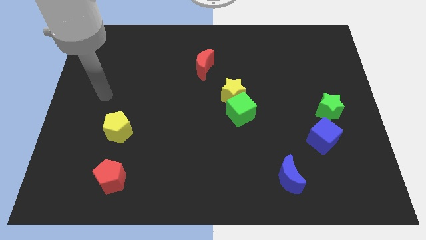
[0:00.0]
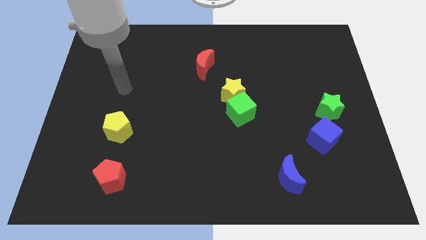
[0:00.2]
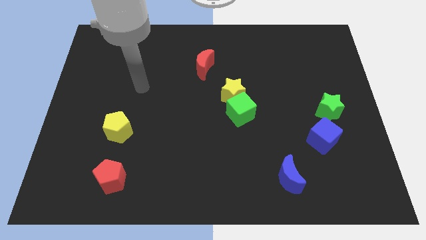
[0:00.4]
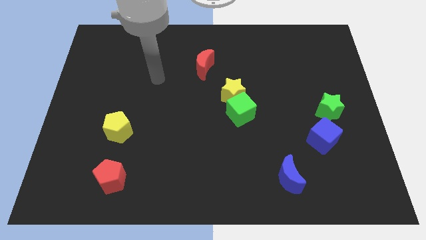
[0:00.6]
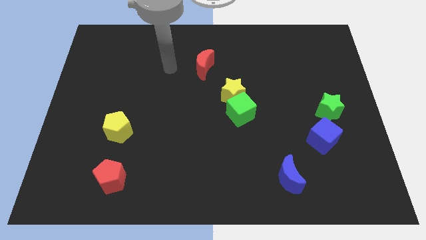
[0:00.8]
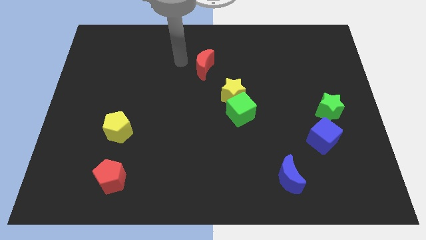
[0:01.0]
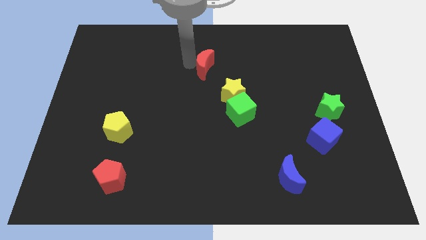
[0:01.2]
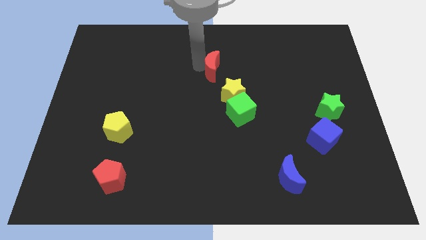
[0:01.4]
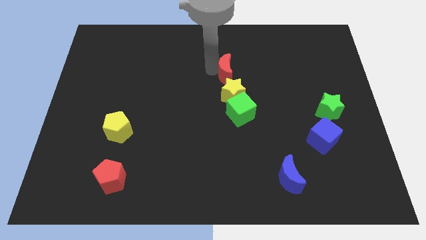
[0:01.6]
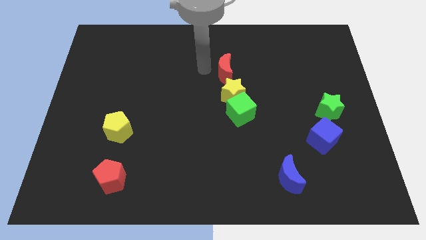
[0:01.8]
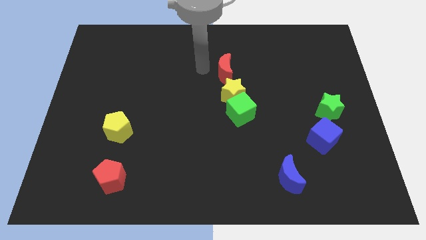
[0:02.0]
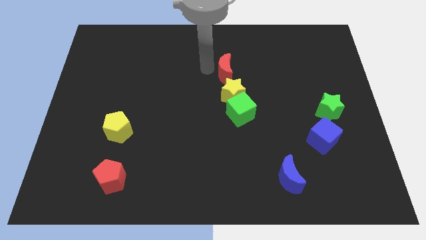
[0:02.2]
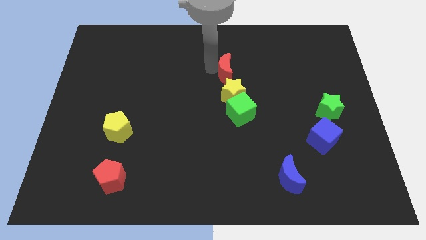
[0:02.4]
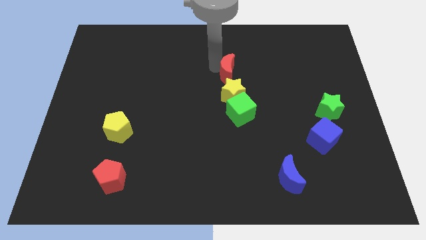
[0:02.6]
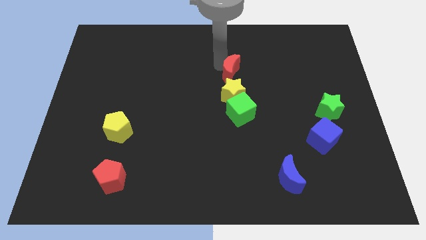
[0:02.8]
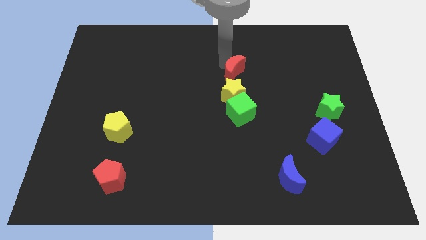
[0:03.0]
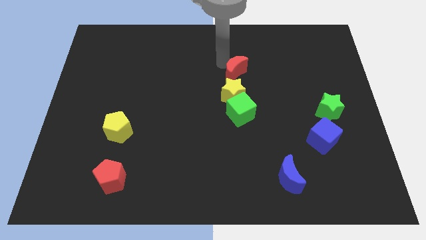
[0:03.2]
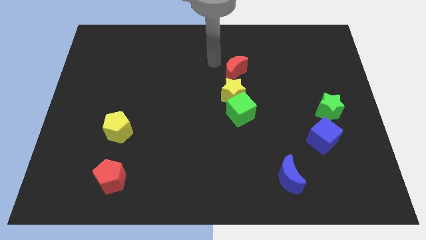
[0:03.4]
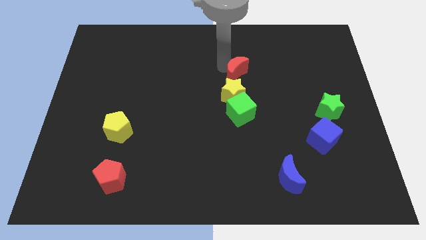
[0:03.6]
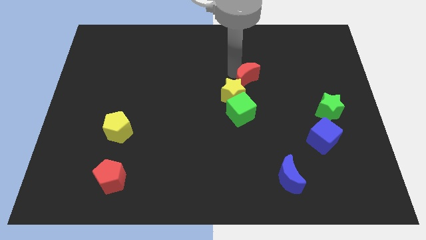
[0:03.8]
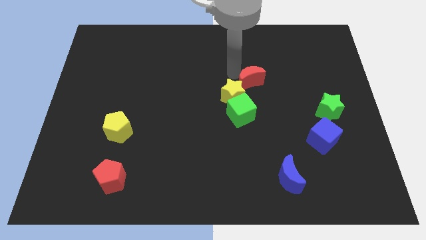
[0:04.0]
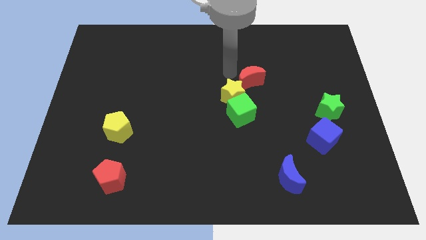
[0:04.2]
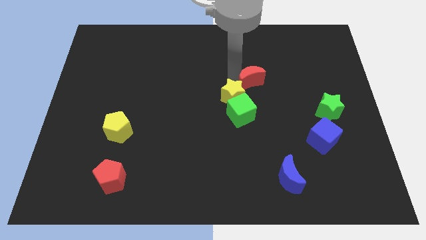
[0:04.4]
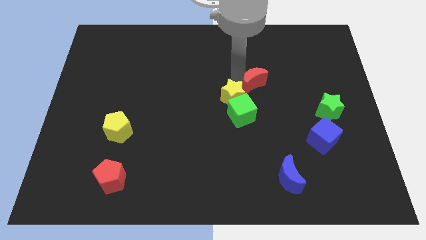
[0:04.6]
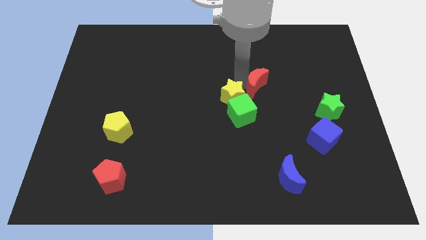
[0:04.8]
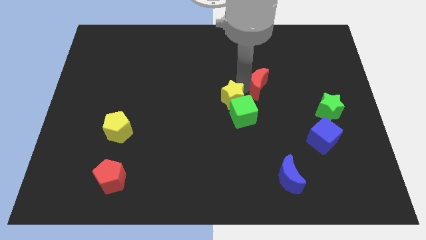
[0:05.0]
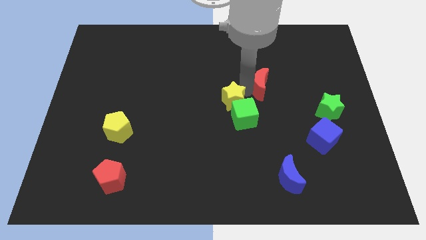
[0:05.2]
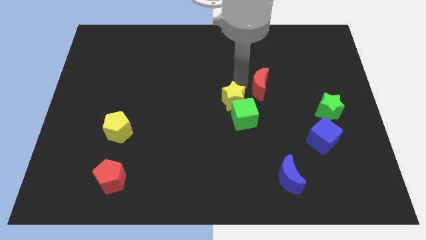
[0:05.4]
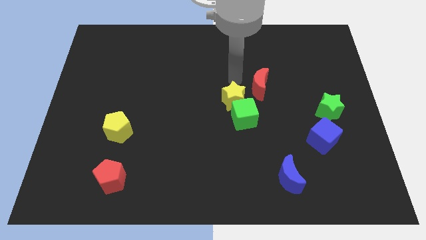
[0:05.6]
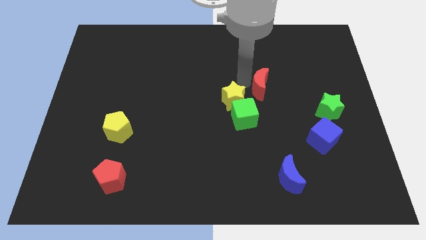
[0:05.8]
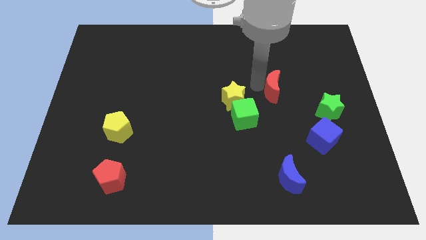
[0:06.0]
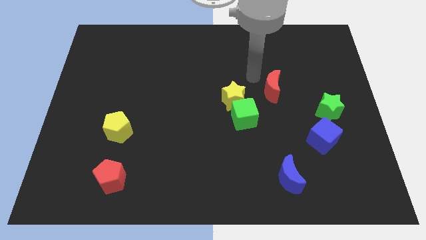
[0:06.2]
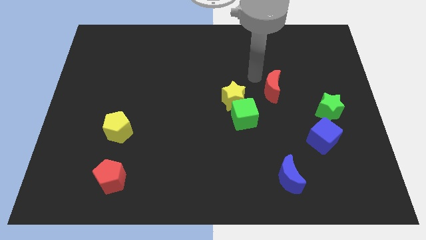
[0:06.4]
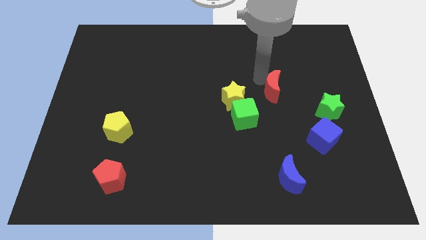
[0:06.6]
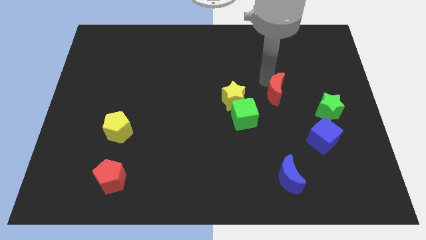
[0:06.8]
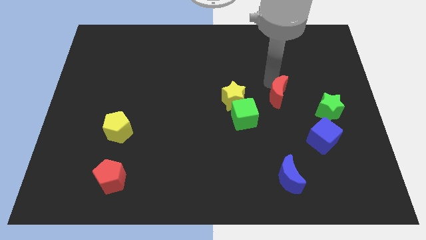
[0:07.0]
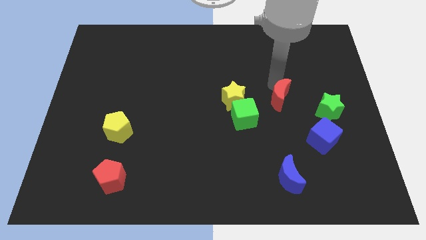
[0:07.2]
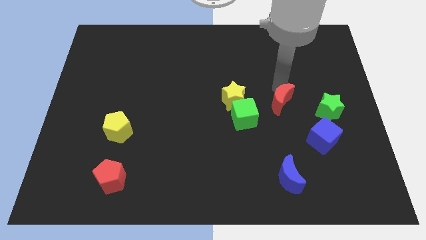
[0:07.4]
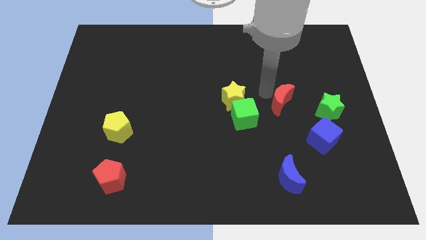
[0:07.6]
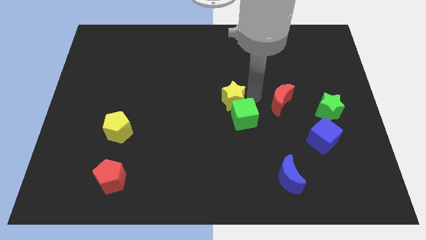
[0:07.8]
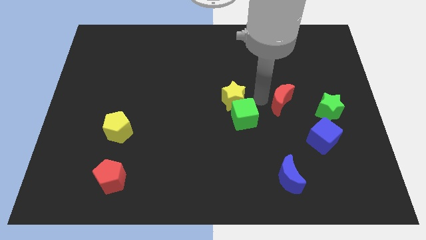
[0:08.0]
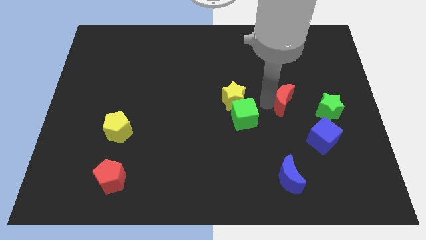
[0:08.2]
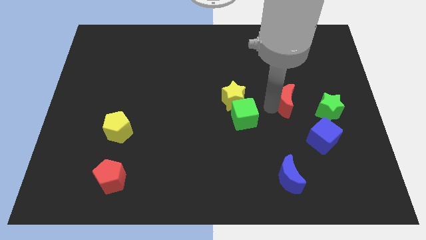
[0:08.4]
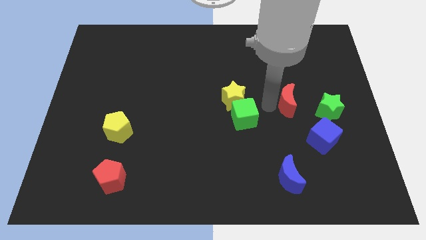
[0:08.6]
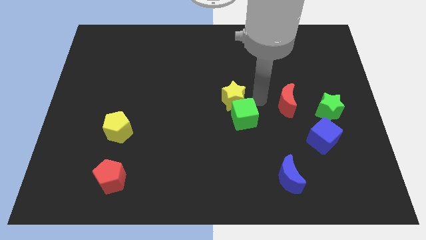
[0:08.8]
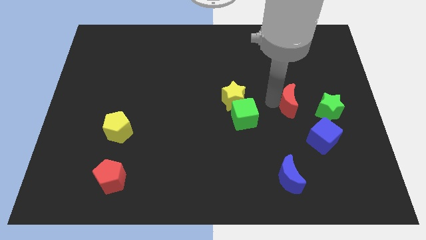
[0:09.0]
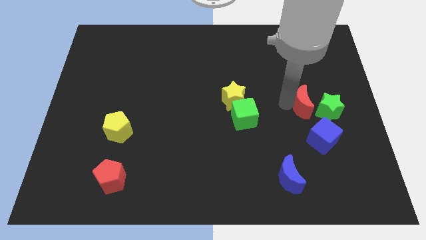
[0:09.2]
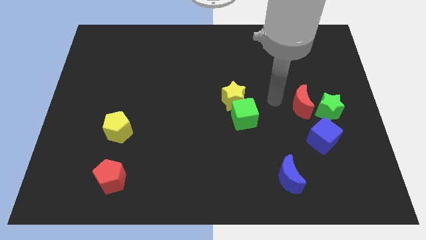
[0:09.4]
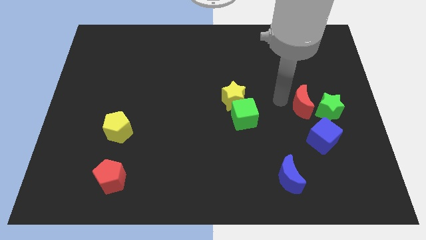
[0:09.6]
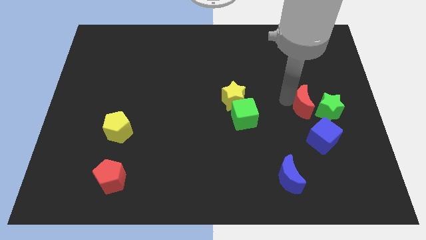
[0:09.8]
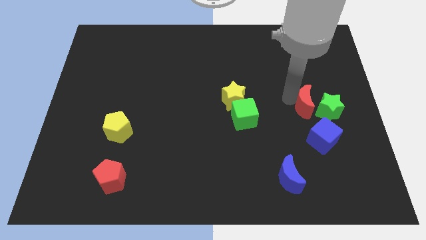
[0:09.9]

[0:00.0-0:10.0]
move the red moon close to the green star

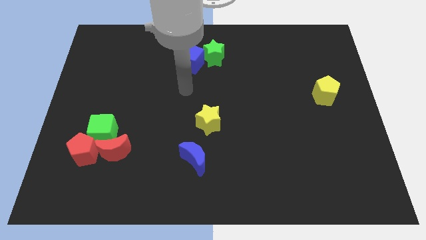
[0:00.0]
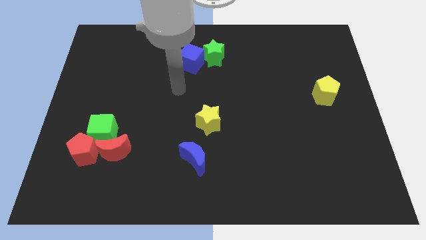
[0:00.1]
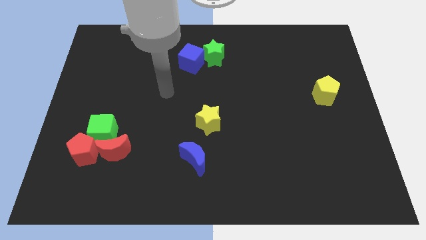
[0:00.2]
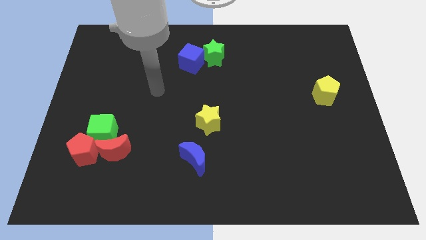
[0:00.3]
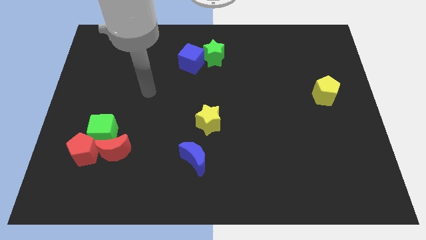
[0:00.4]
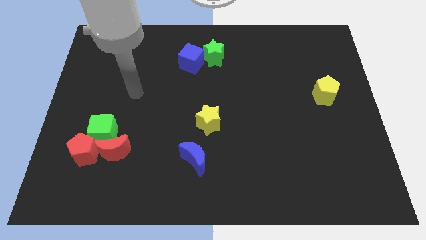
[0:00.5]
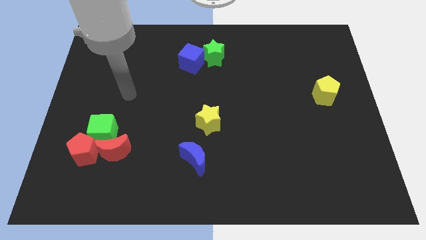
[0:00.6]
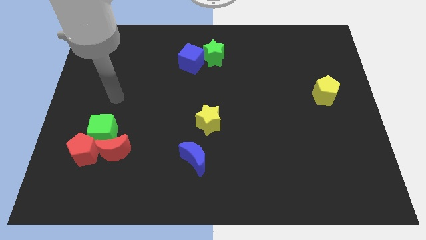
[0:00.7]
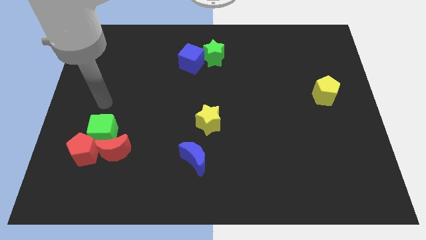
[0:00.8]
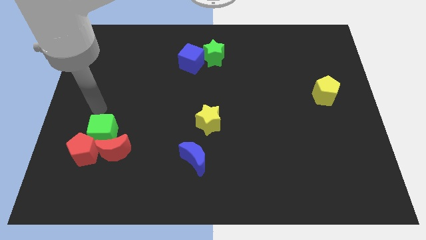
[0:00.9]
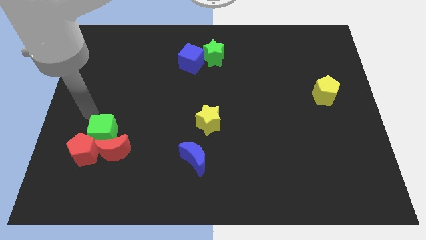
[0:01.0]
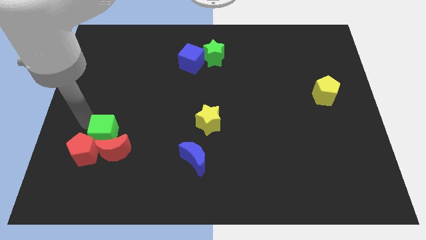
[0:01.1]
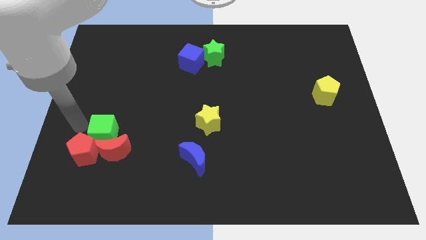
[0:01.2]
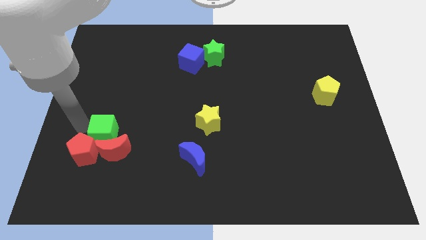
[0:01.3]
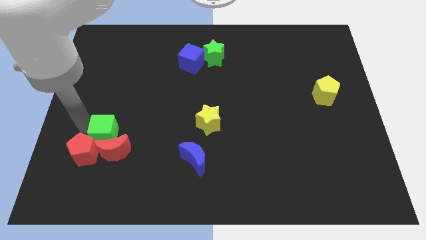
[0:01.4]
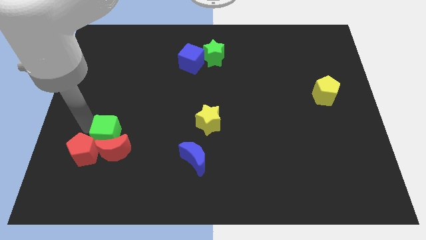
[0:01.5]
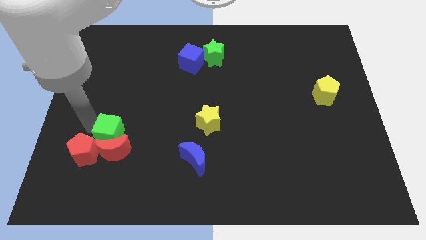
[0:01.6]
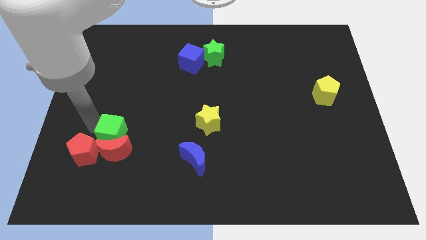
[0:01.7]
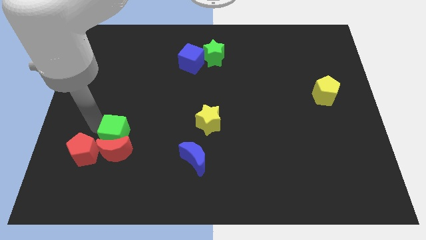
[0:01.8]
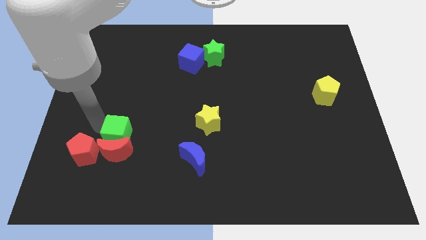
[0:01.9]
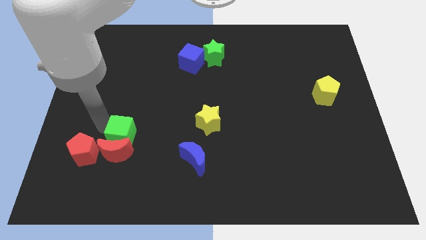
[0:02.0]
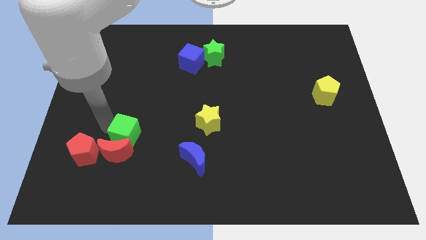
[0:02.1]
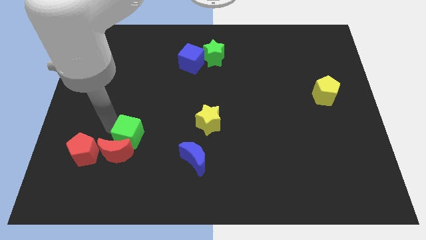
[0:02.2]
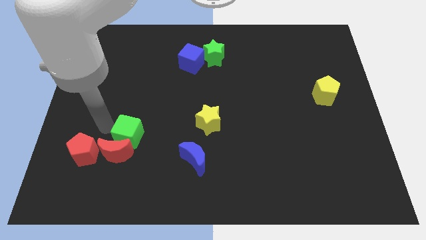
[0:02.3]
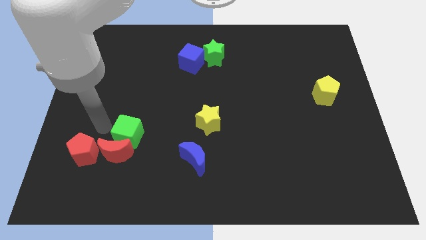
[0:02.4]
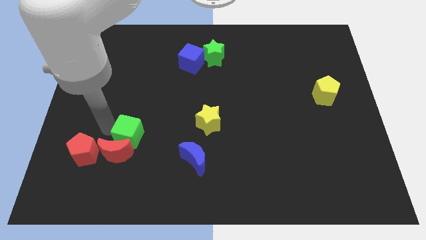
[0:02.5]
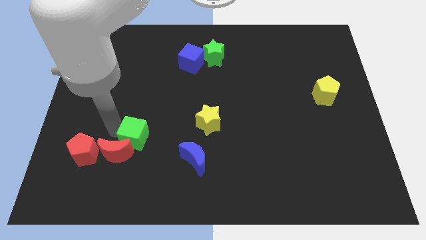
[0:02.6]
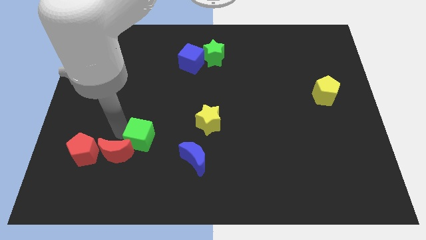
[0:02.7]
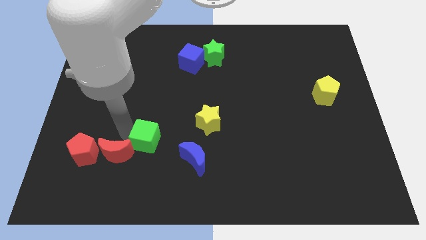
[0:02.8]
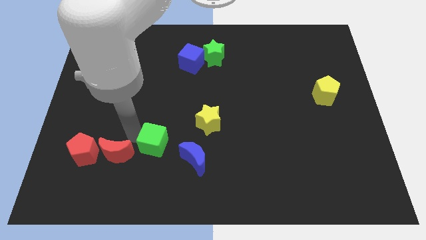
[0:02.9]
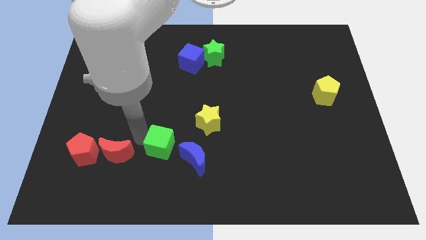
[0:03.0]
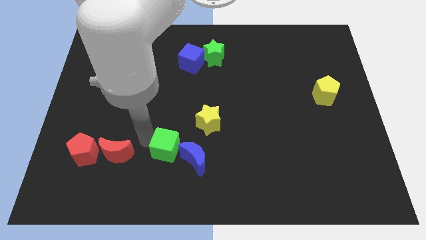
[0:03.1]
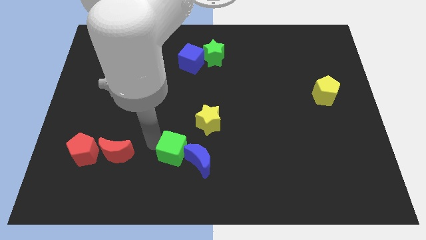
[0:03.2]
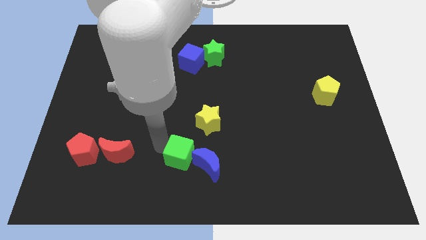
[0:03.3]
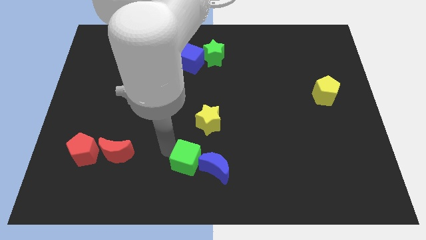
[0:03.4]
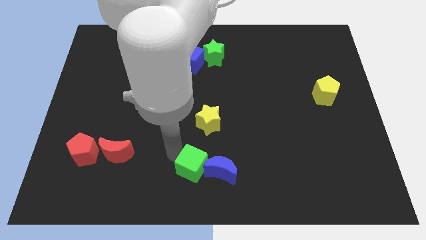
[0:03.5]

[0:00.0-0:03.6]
push the green cube next to the blue moon
